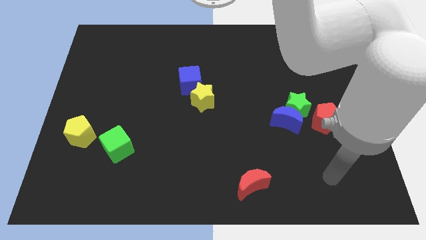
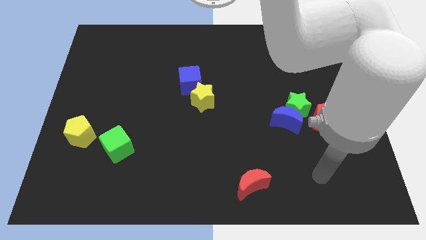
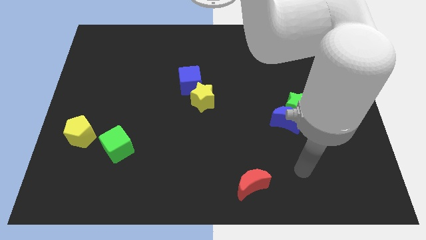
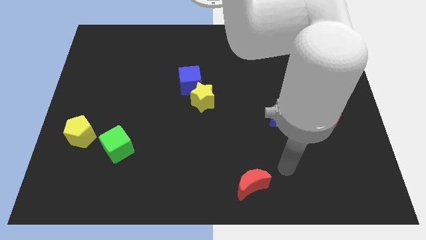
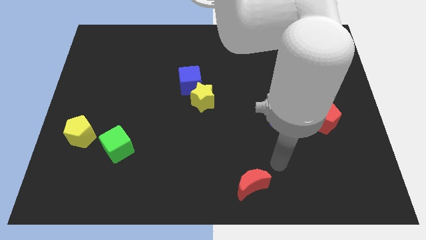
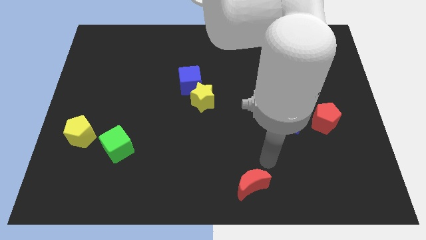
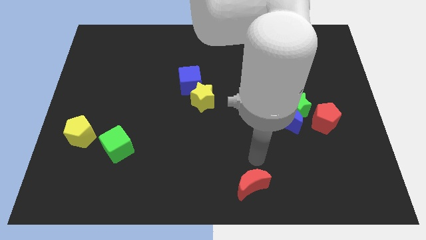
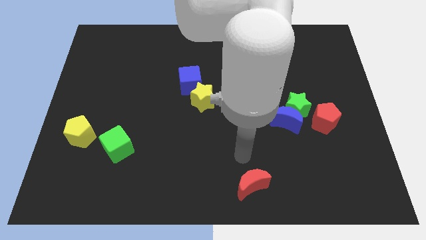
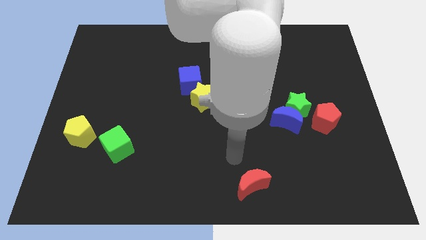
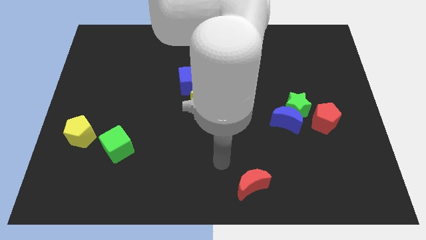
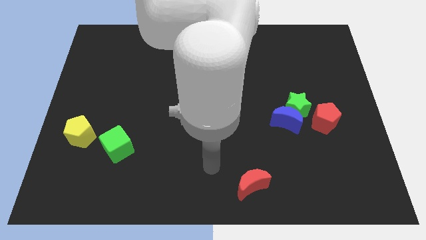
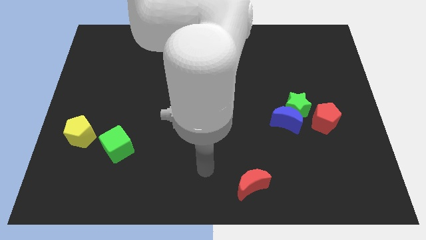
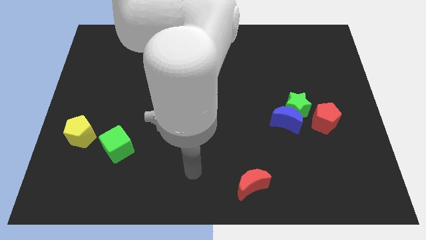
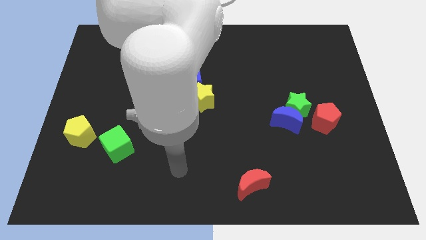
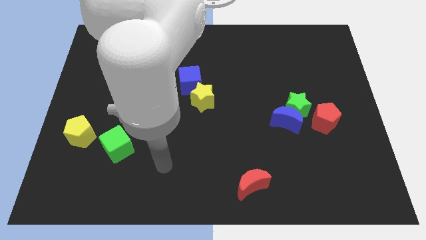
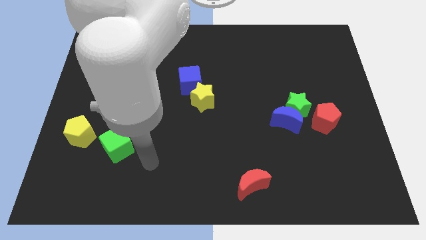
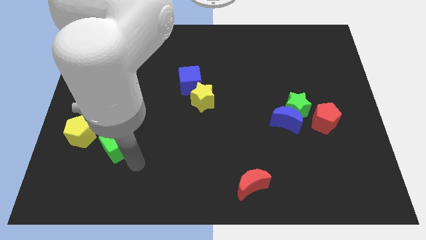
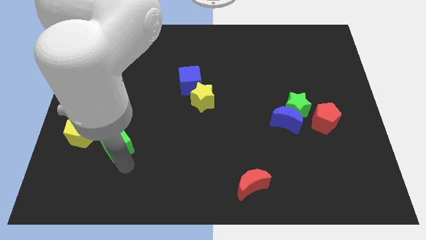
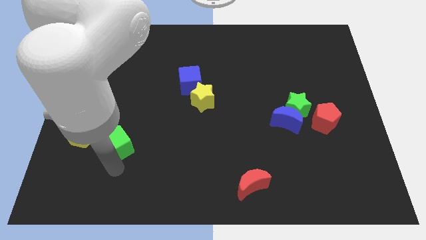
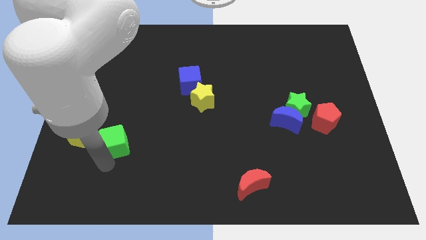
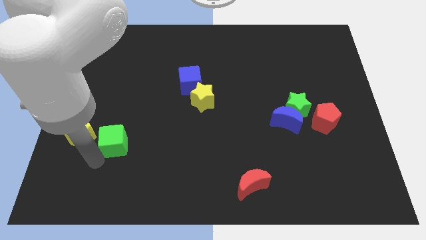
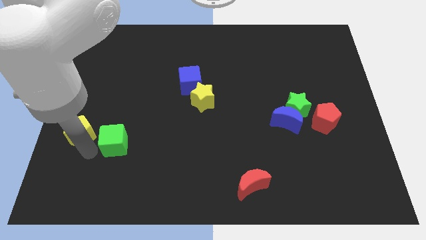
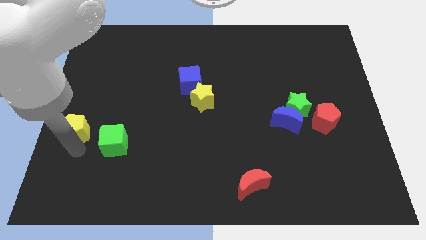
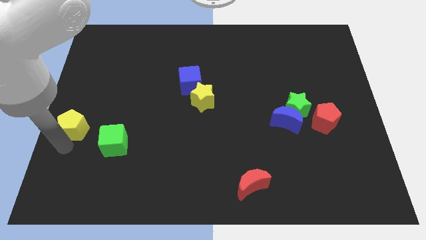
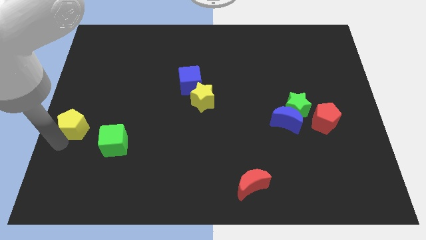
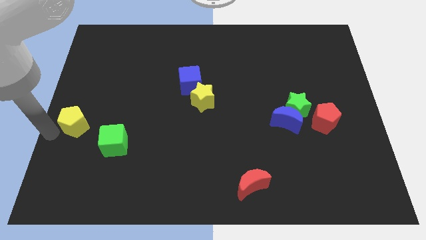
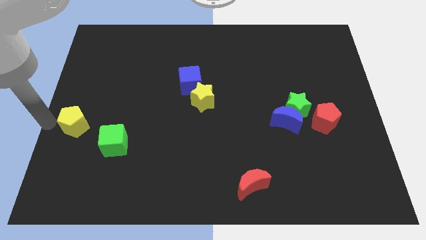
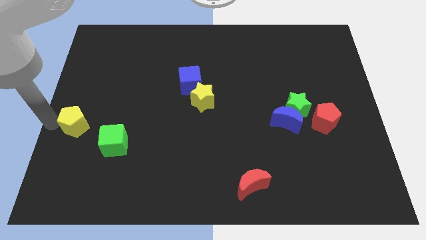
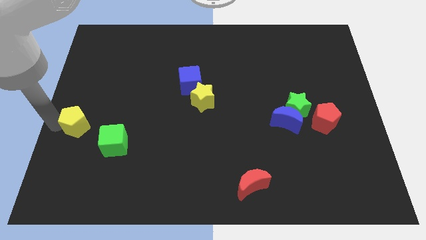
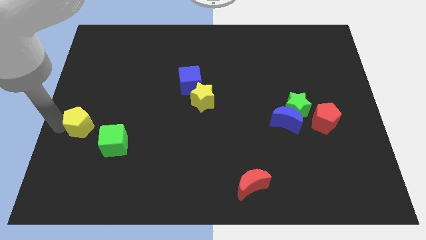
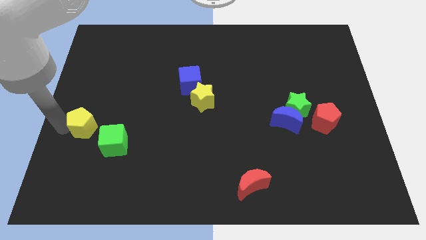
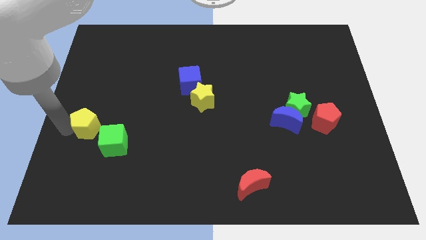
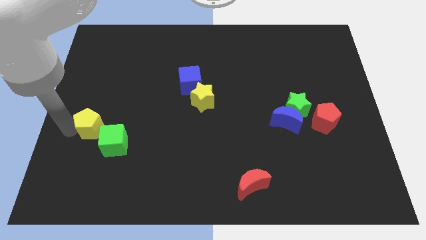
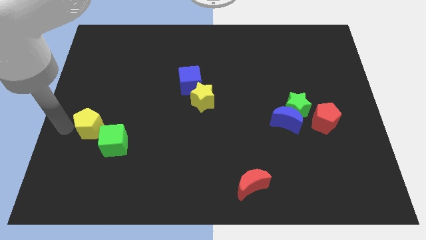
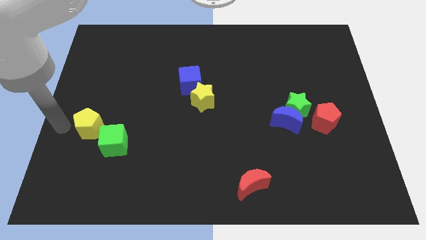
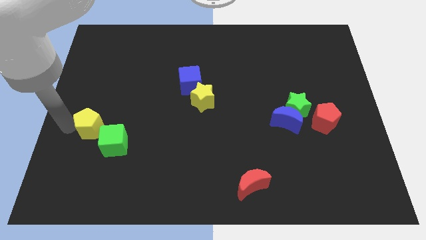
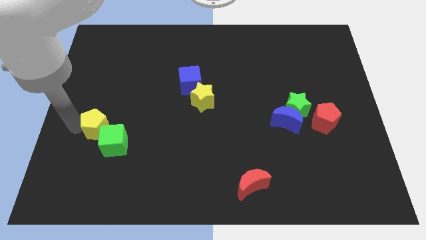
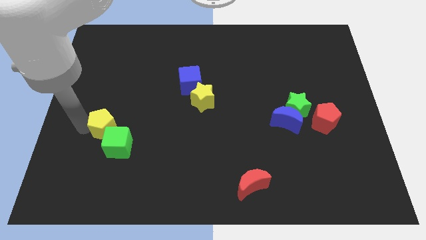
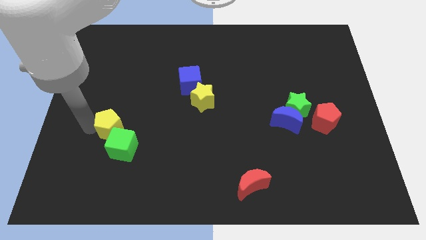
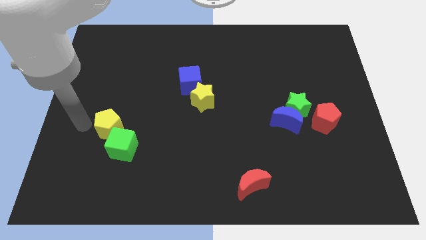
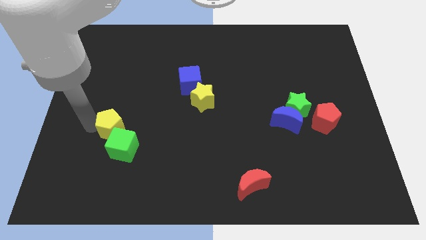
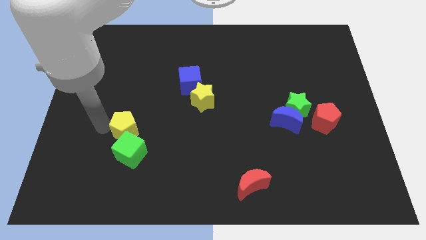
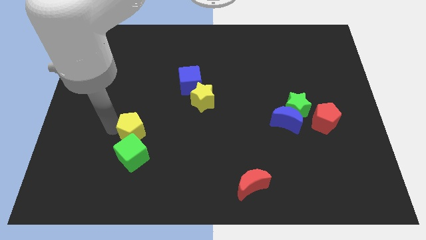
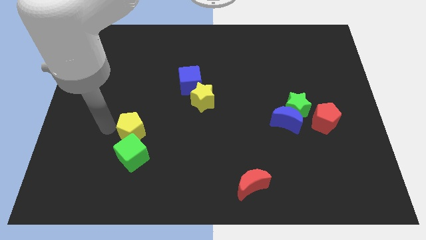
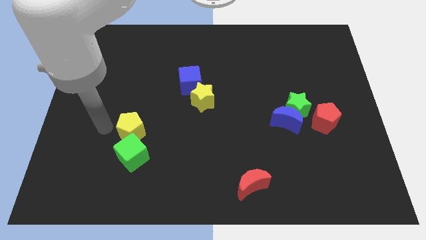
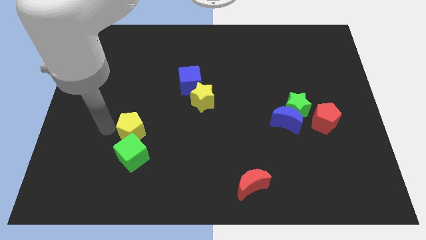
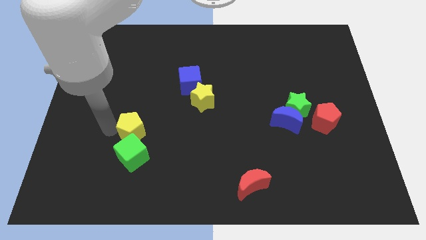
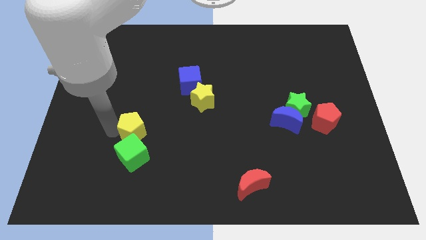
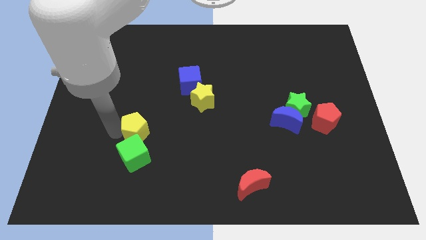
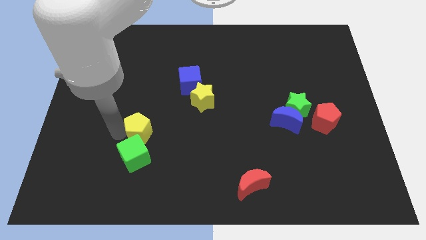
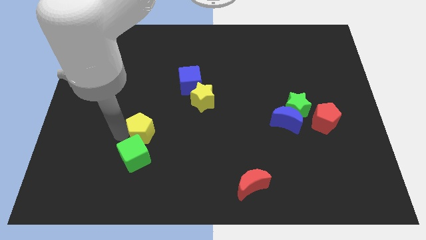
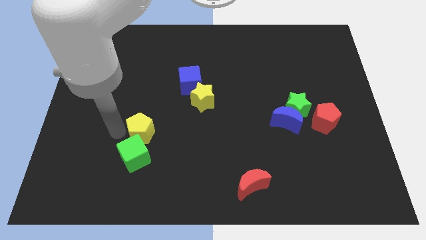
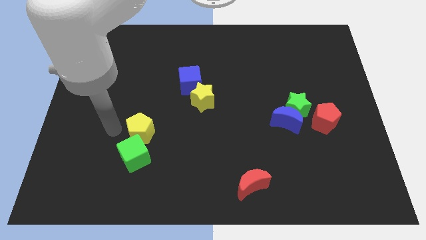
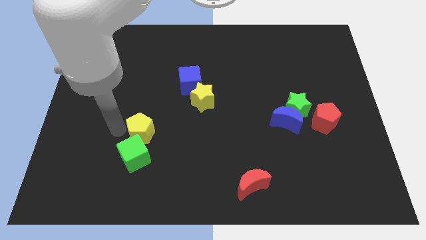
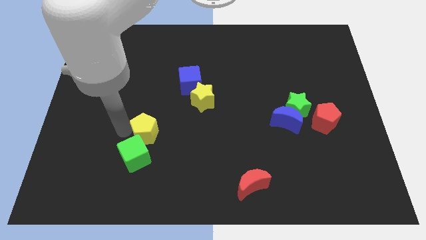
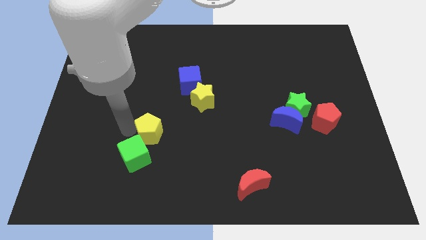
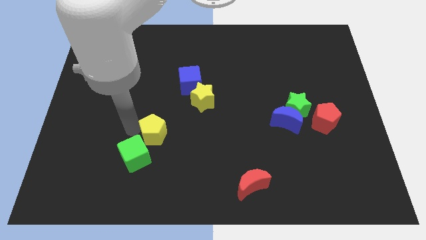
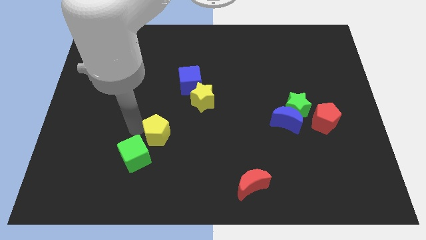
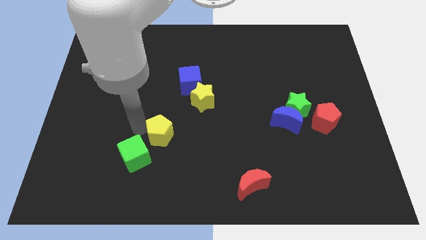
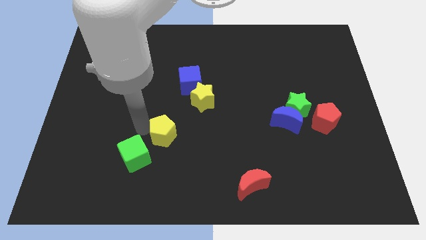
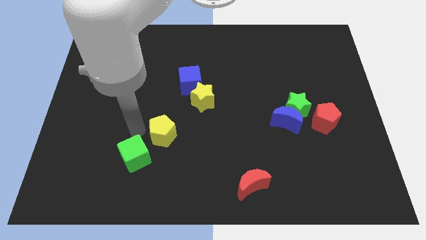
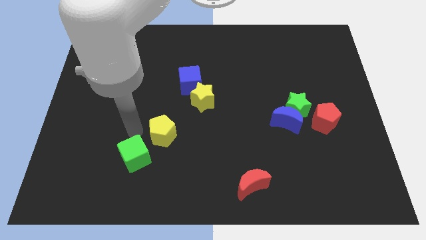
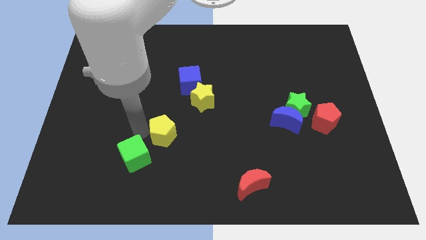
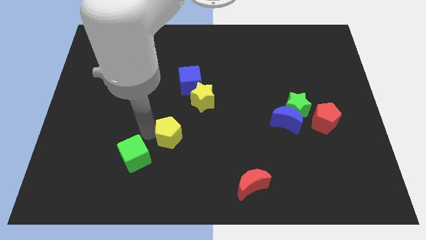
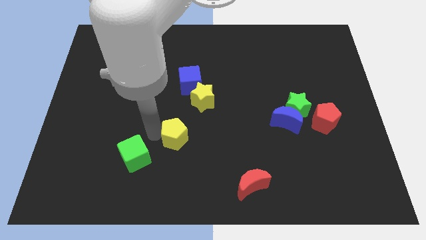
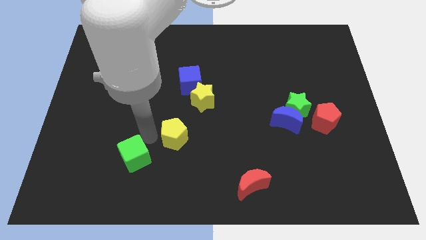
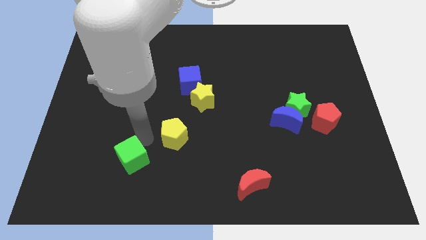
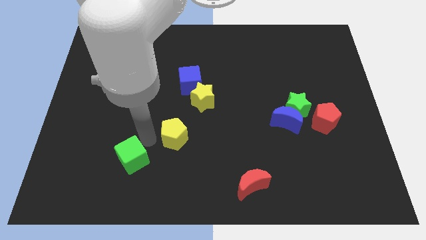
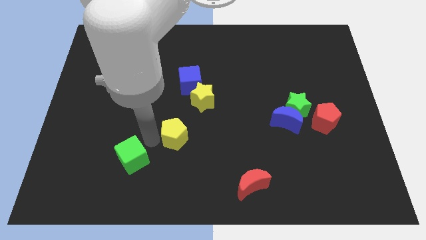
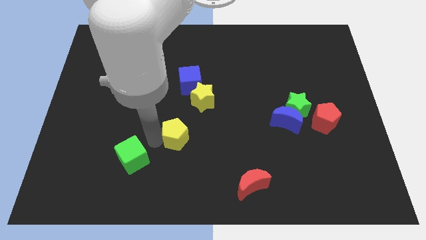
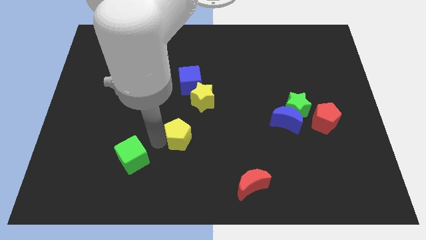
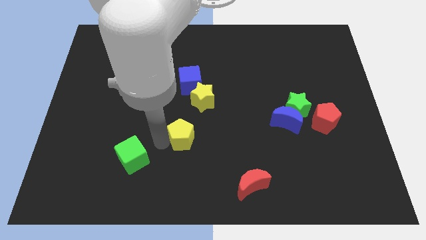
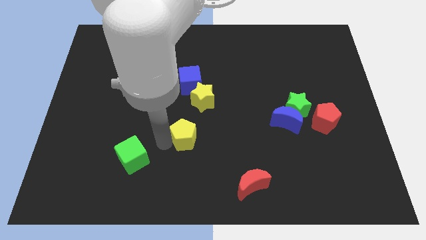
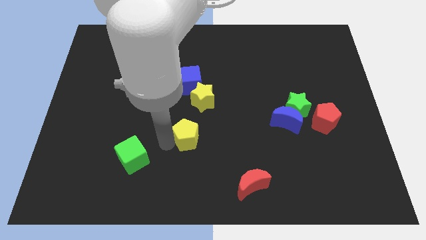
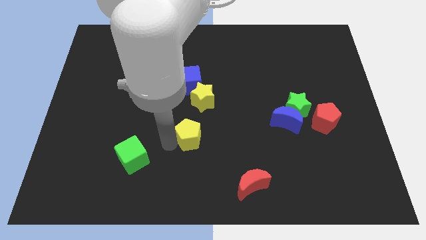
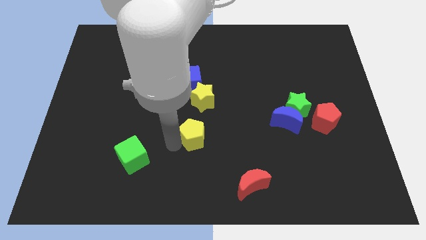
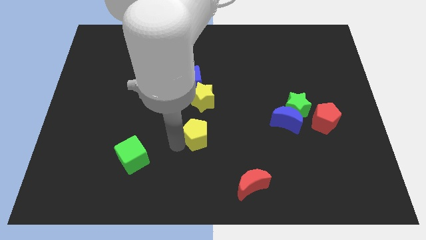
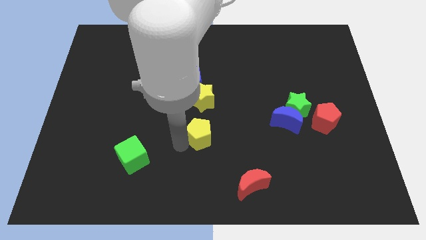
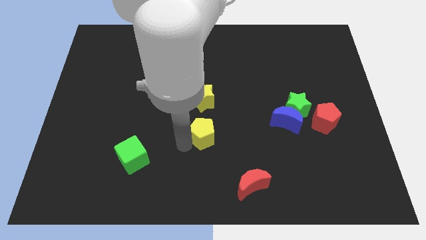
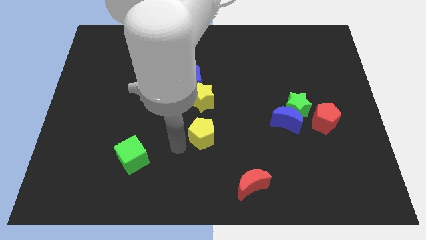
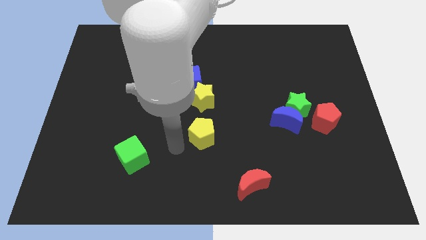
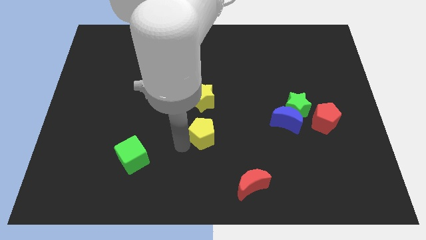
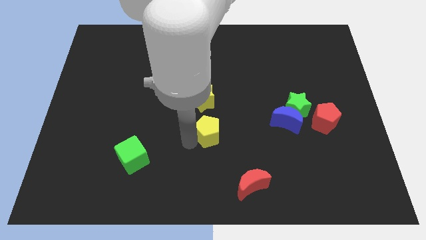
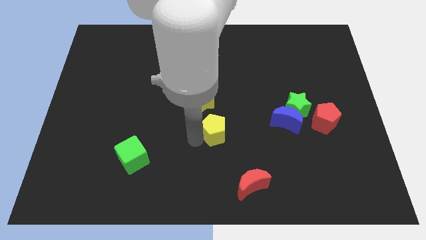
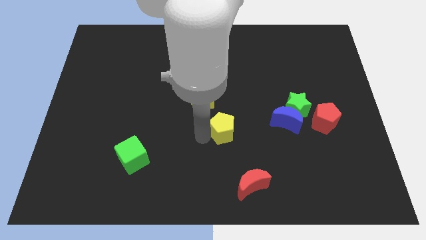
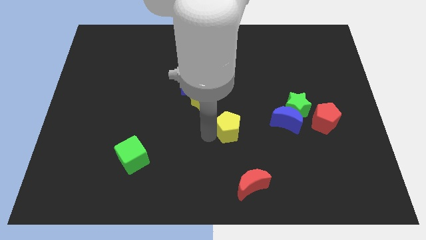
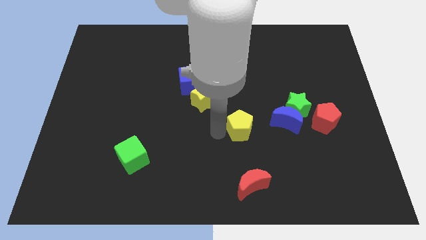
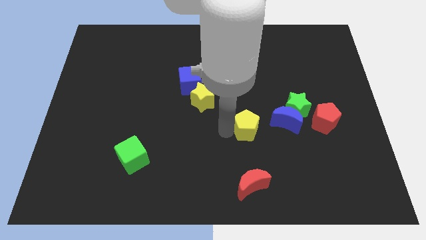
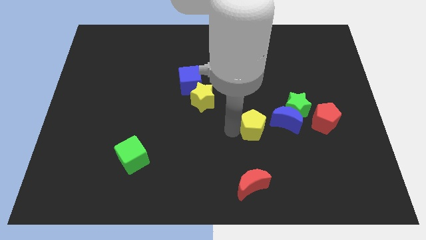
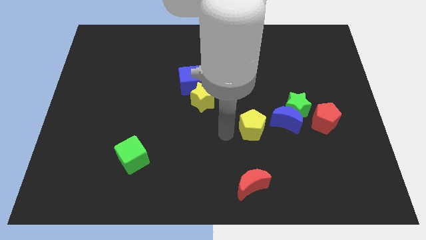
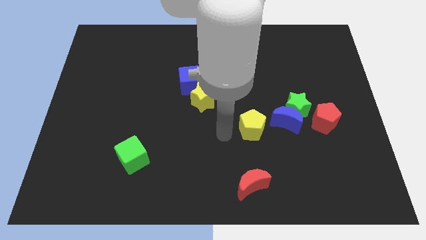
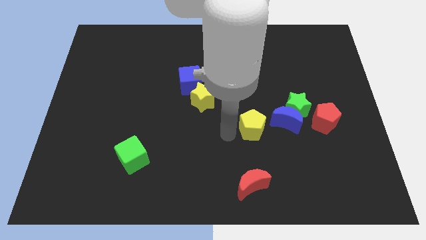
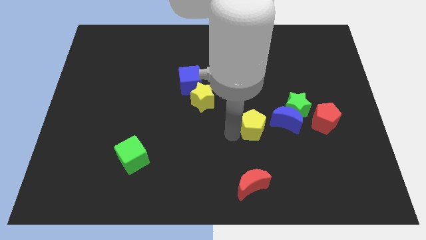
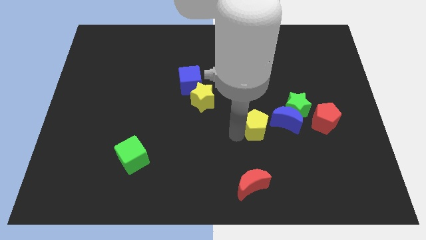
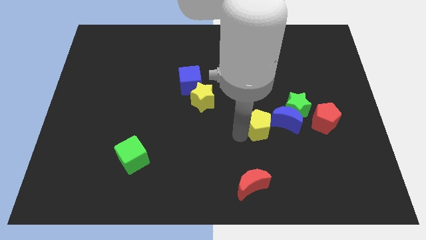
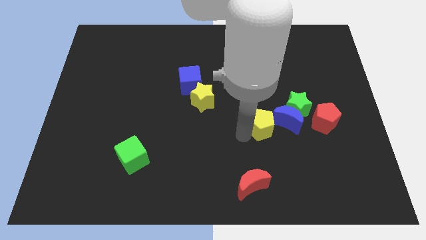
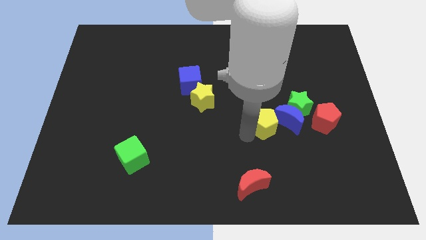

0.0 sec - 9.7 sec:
put the yellow pentagon to the blue moon
